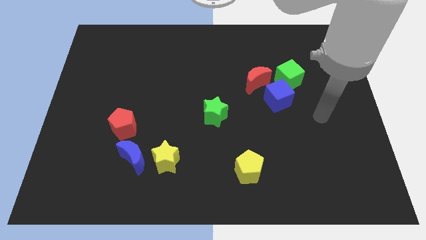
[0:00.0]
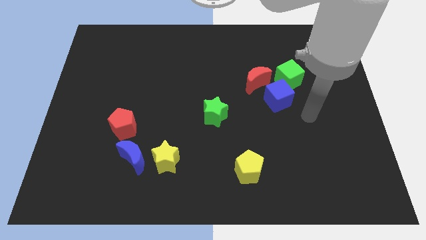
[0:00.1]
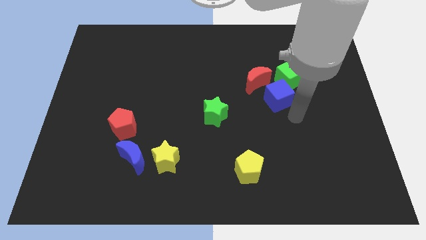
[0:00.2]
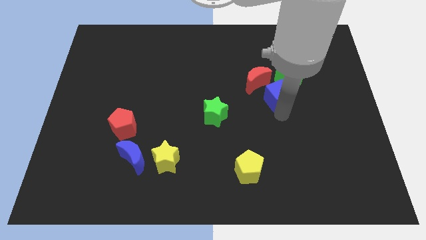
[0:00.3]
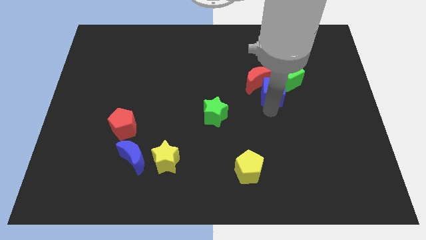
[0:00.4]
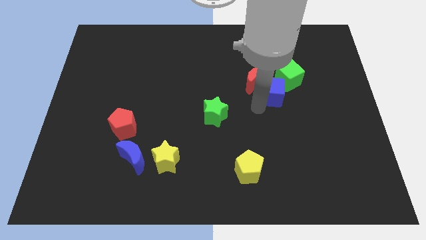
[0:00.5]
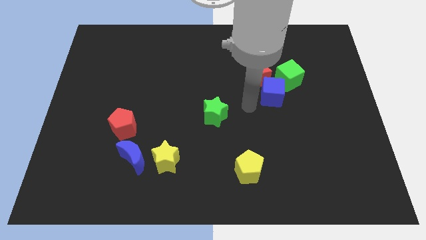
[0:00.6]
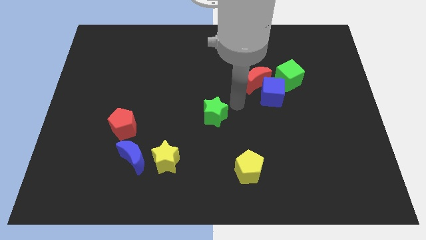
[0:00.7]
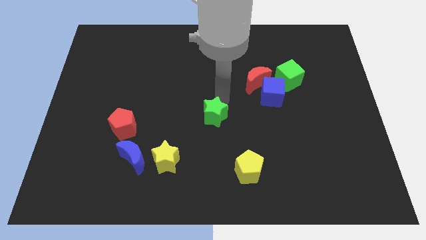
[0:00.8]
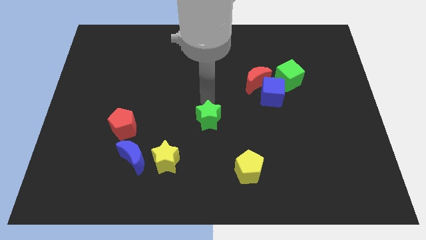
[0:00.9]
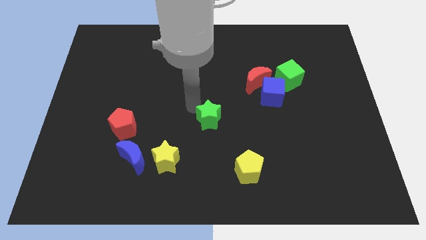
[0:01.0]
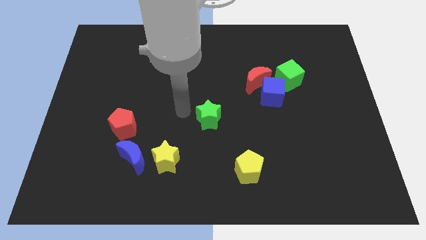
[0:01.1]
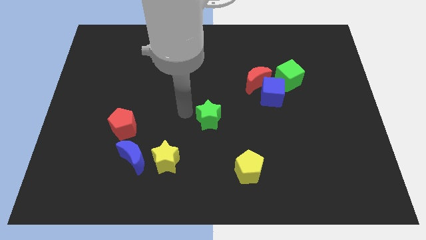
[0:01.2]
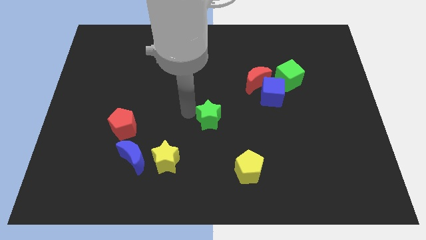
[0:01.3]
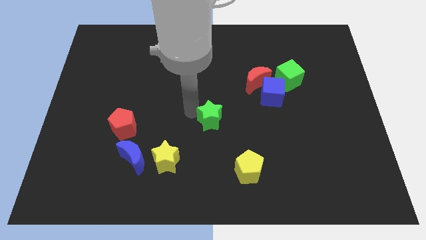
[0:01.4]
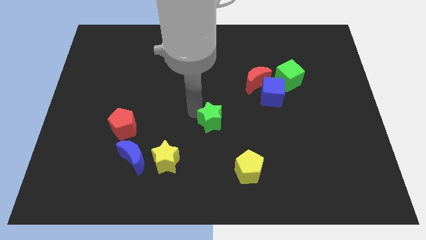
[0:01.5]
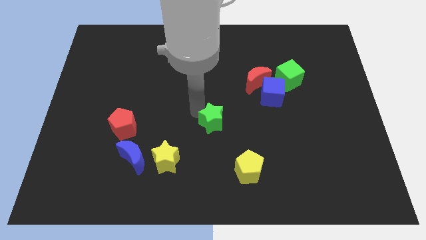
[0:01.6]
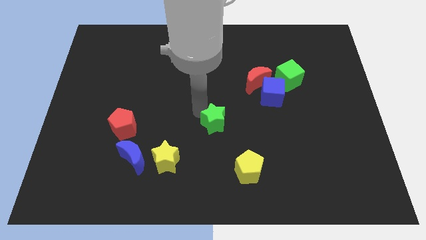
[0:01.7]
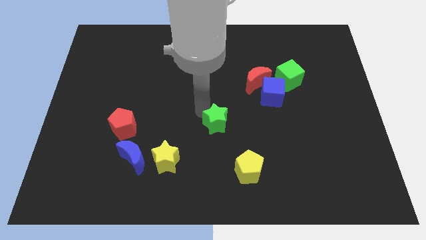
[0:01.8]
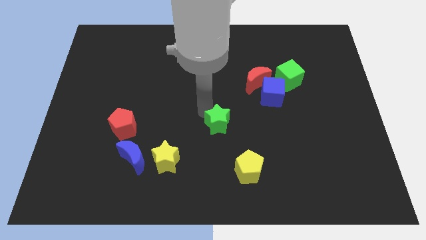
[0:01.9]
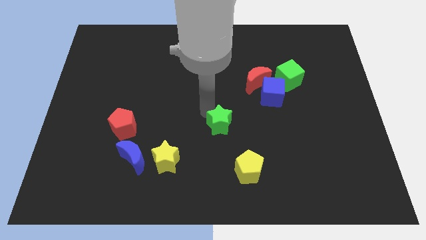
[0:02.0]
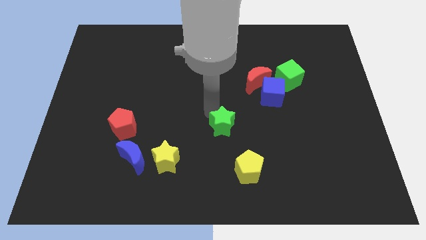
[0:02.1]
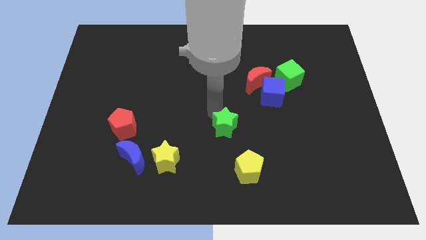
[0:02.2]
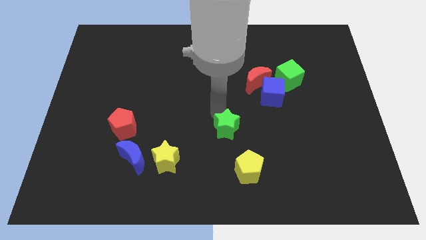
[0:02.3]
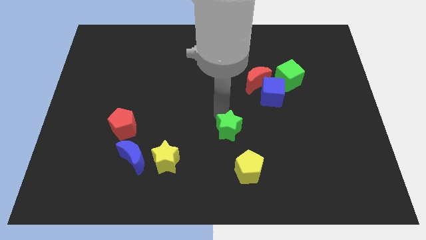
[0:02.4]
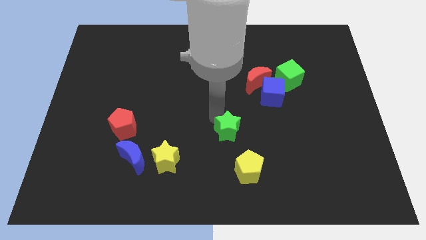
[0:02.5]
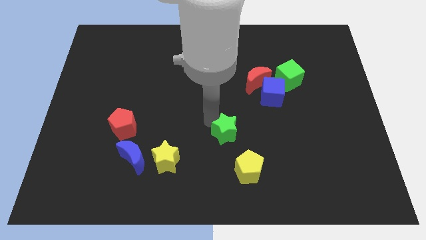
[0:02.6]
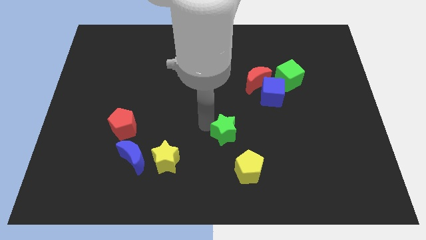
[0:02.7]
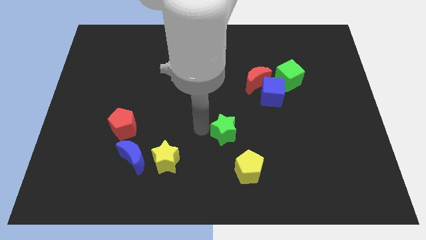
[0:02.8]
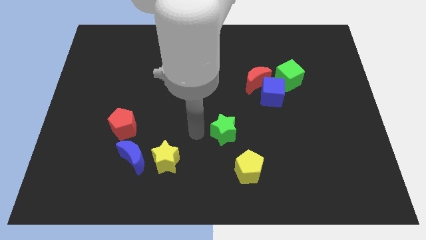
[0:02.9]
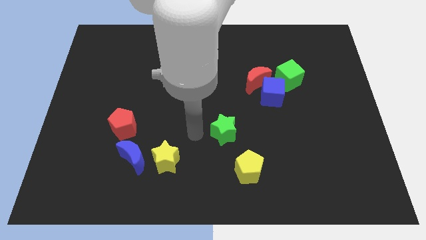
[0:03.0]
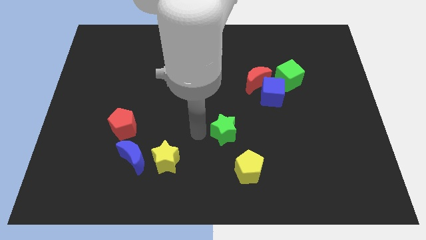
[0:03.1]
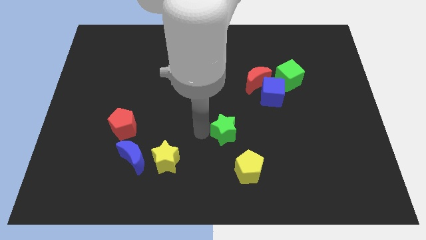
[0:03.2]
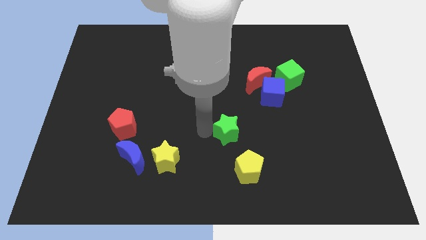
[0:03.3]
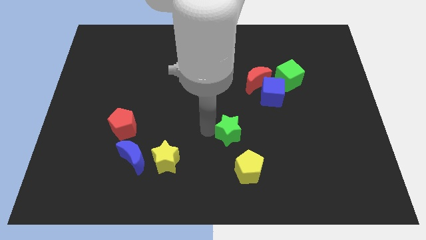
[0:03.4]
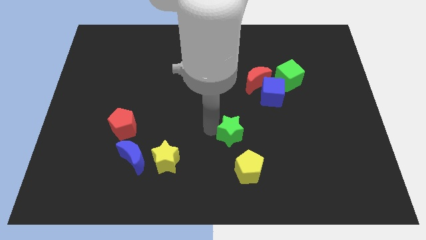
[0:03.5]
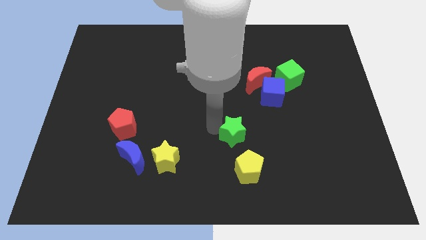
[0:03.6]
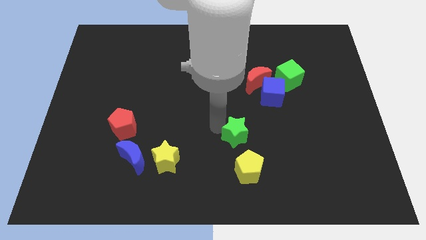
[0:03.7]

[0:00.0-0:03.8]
slightly push the green star down and to the right diagonally

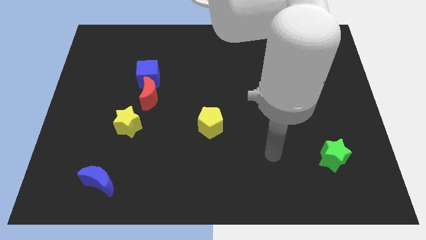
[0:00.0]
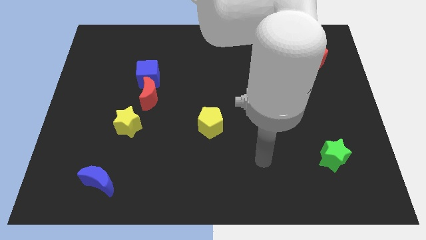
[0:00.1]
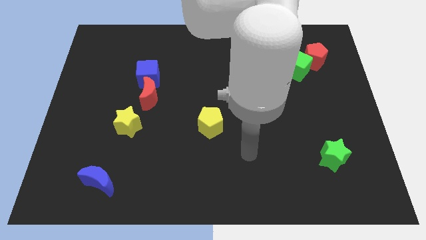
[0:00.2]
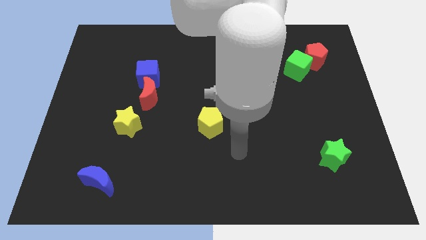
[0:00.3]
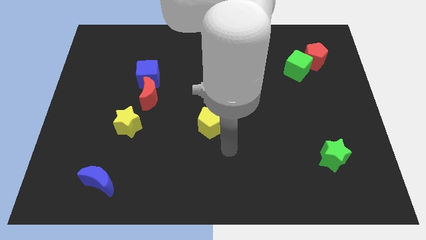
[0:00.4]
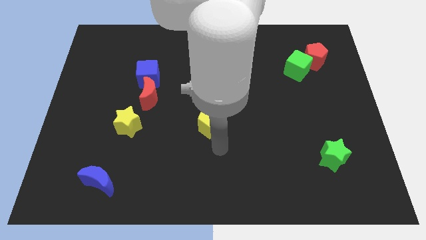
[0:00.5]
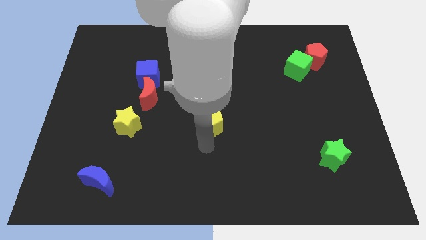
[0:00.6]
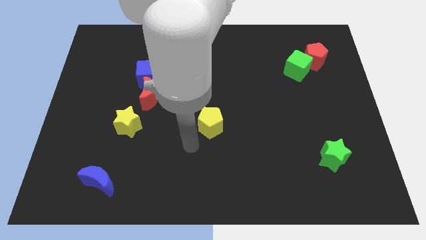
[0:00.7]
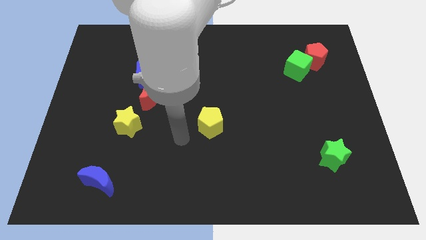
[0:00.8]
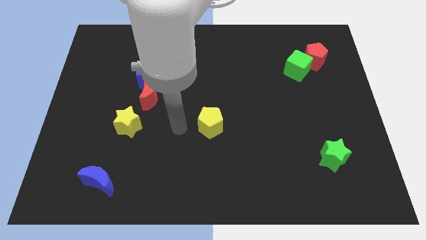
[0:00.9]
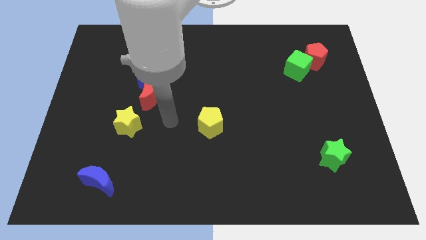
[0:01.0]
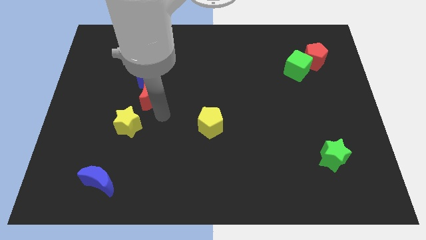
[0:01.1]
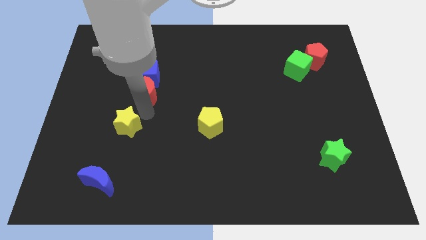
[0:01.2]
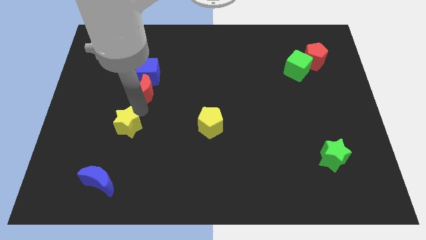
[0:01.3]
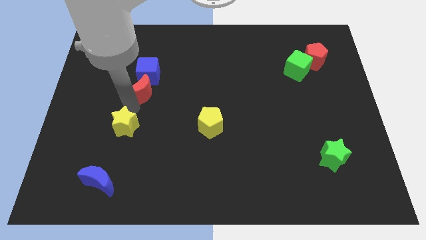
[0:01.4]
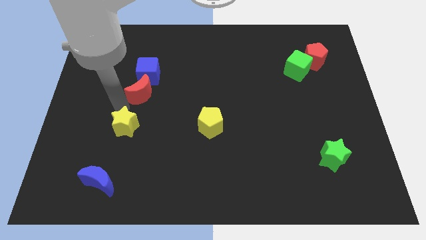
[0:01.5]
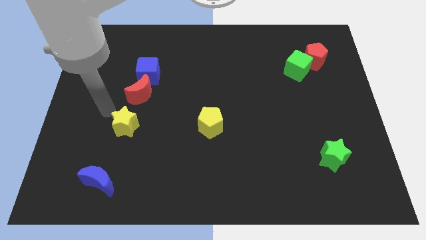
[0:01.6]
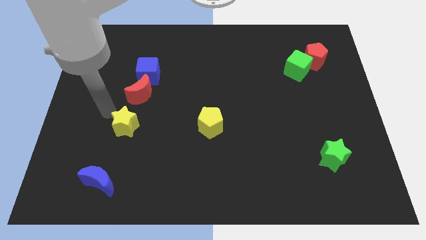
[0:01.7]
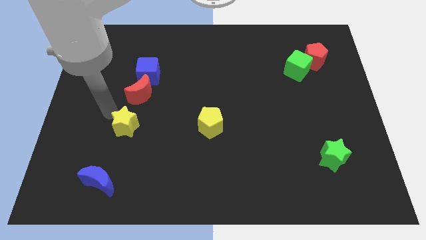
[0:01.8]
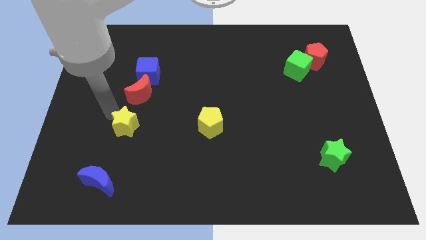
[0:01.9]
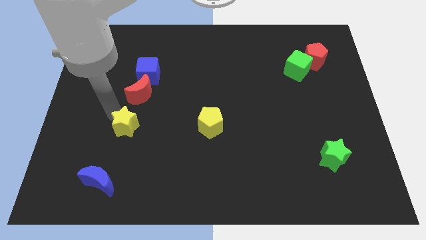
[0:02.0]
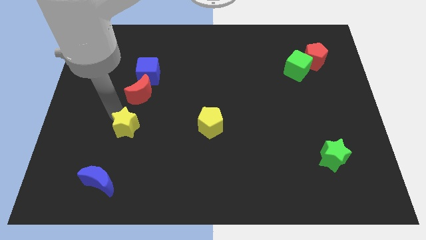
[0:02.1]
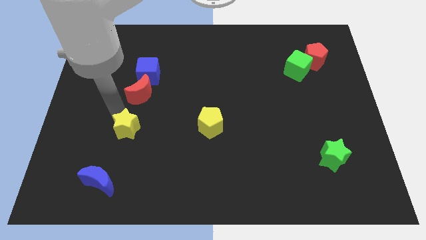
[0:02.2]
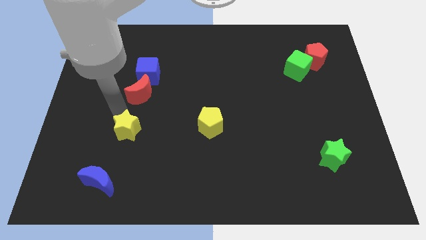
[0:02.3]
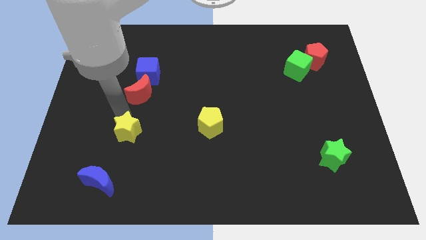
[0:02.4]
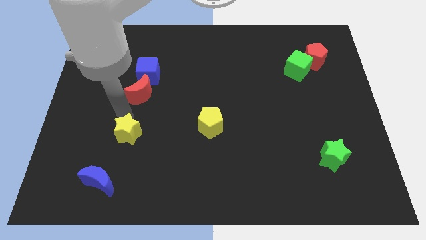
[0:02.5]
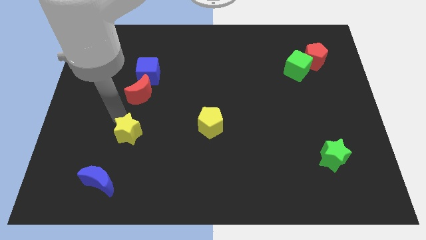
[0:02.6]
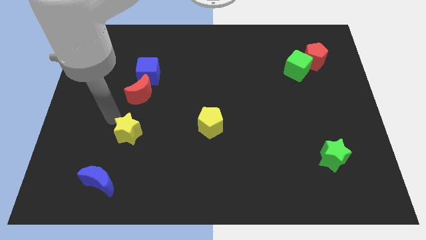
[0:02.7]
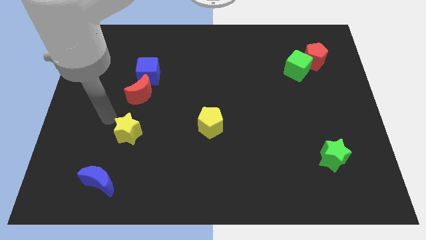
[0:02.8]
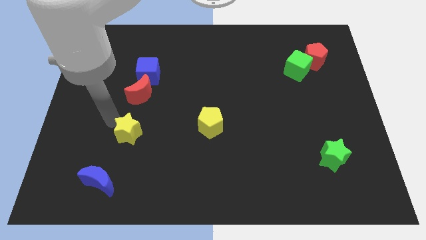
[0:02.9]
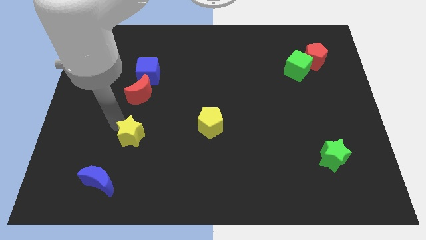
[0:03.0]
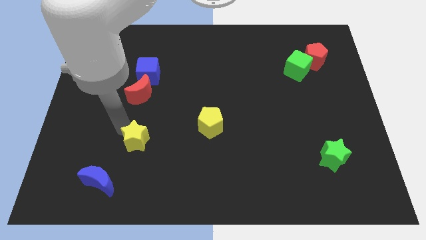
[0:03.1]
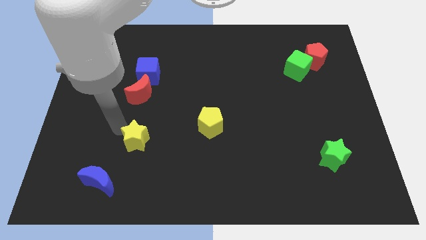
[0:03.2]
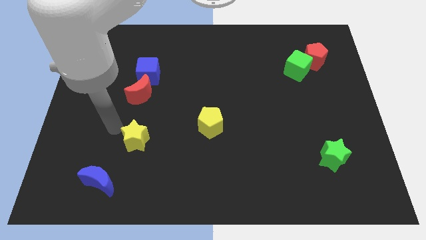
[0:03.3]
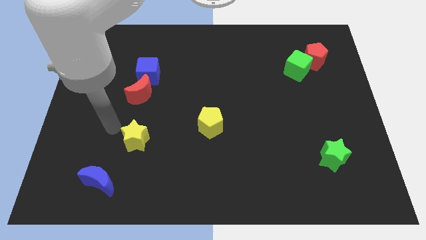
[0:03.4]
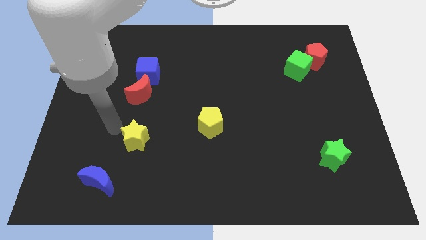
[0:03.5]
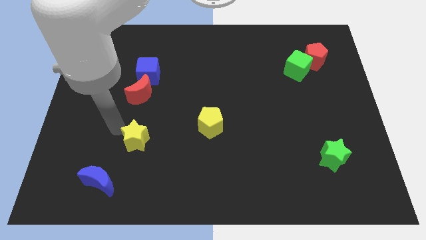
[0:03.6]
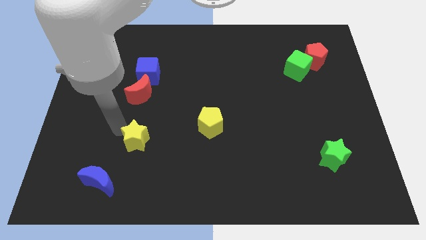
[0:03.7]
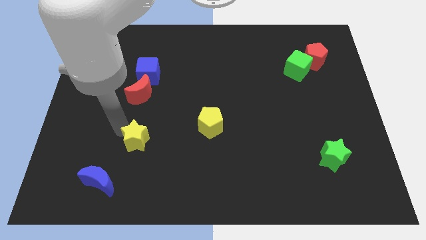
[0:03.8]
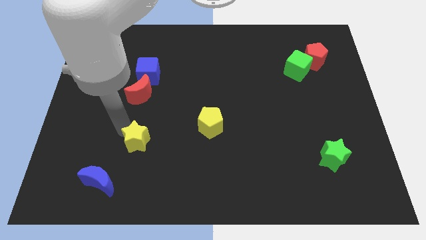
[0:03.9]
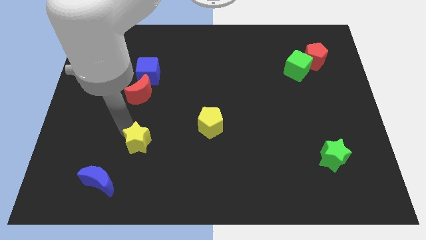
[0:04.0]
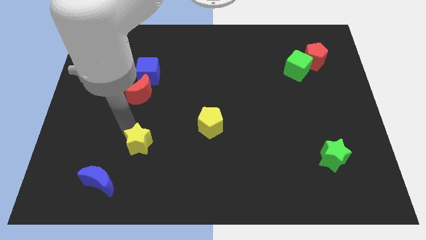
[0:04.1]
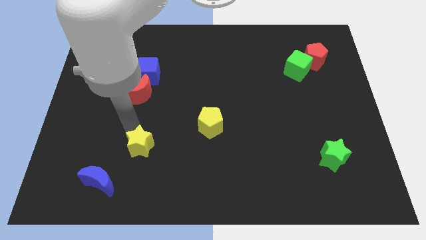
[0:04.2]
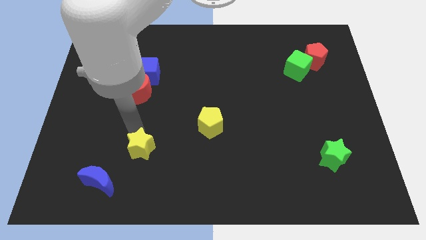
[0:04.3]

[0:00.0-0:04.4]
slightly move the yellow star down and to the right
